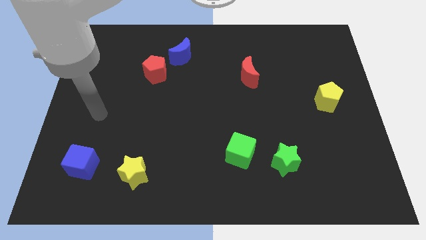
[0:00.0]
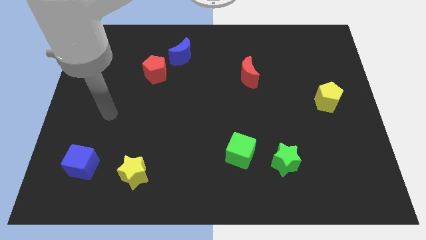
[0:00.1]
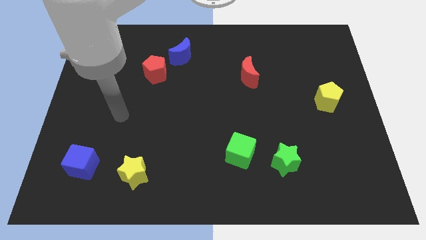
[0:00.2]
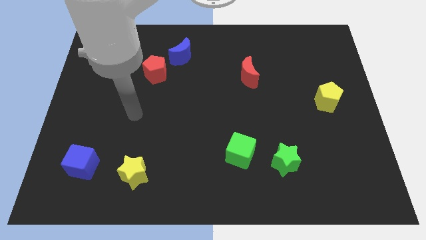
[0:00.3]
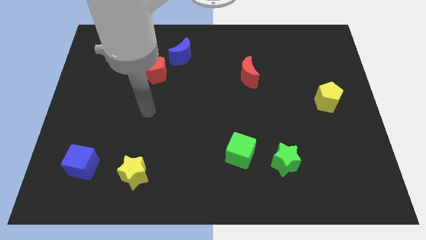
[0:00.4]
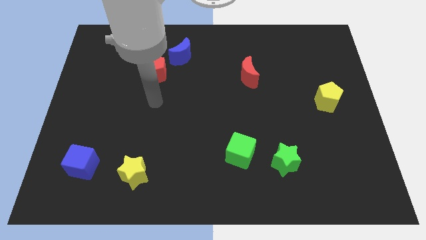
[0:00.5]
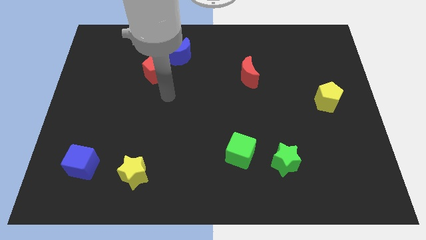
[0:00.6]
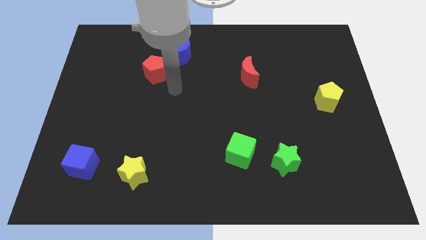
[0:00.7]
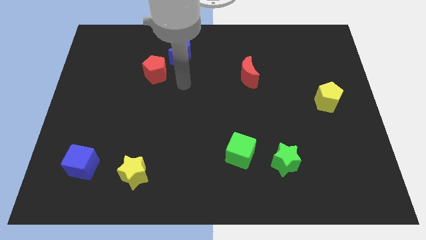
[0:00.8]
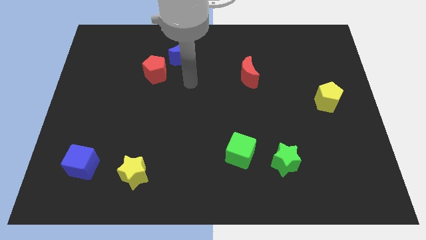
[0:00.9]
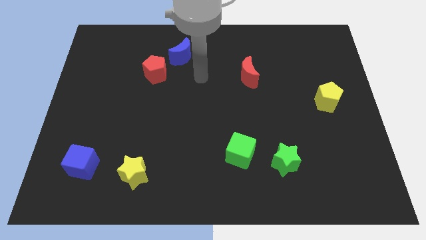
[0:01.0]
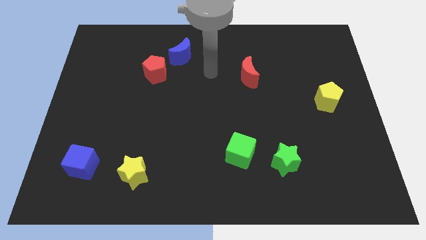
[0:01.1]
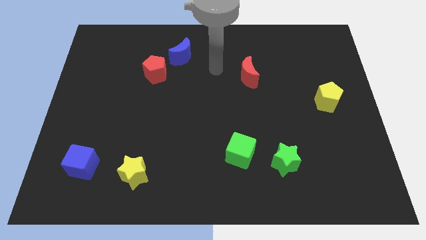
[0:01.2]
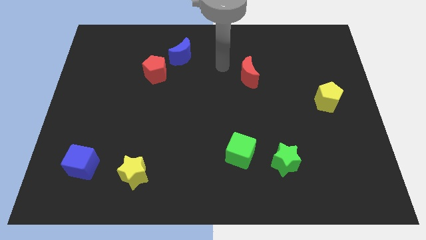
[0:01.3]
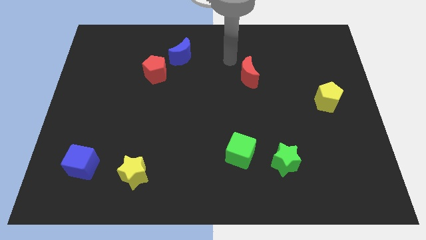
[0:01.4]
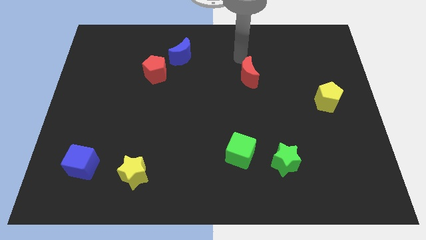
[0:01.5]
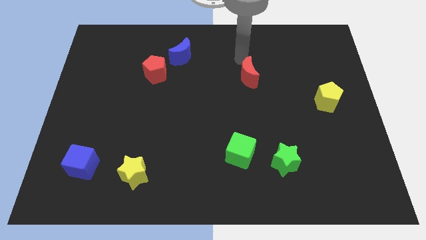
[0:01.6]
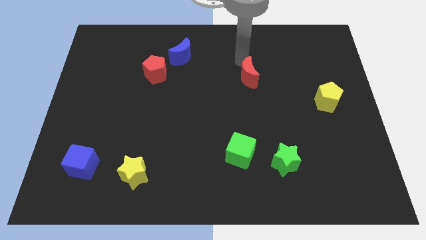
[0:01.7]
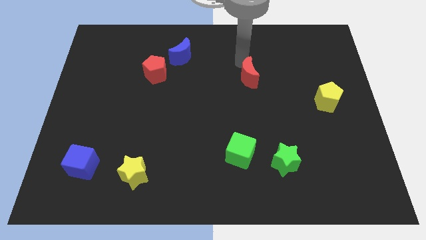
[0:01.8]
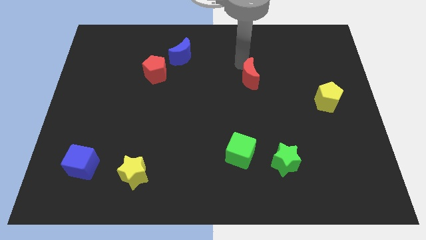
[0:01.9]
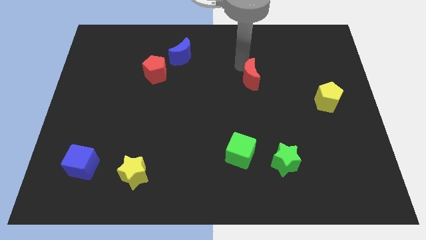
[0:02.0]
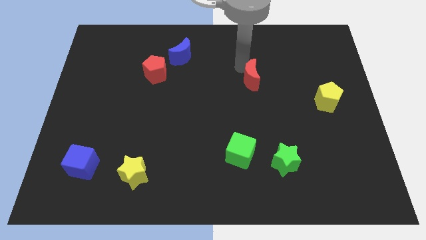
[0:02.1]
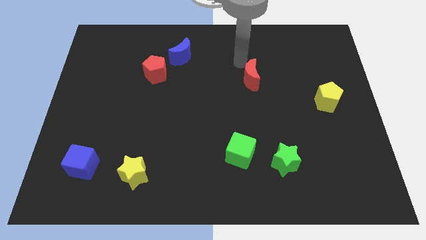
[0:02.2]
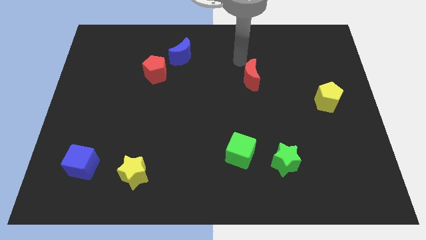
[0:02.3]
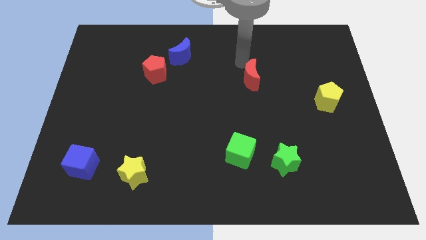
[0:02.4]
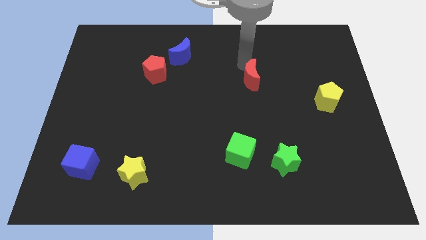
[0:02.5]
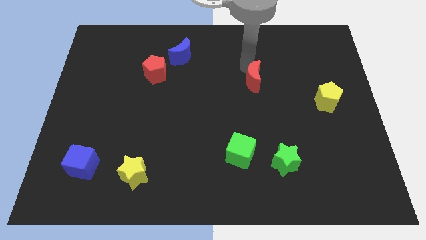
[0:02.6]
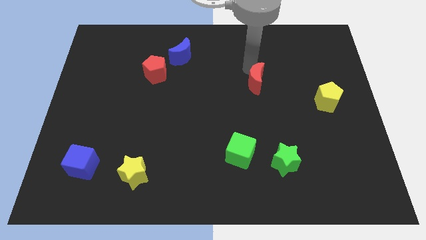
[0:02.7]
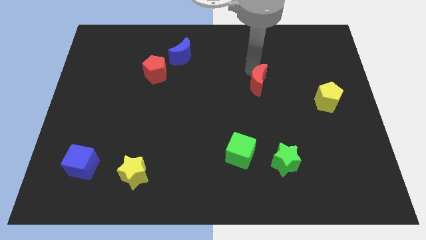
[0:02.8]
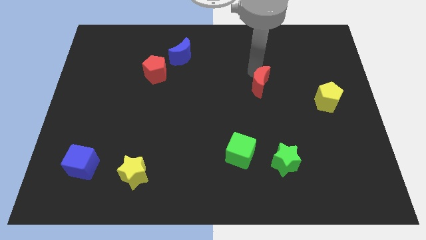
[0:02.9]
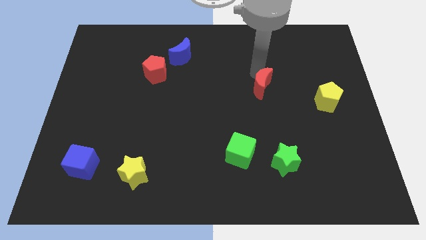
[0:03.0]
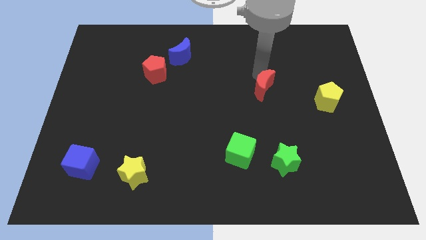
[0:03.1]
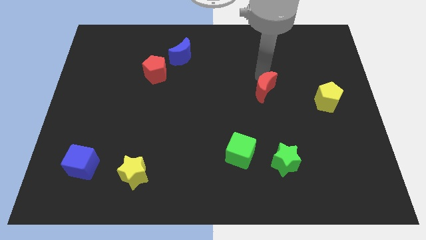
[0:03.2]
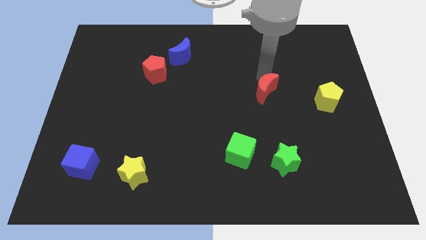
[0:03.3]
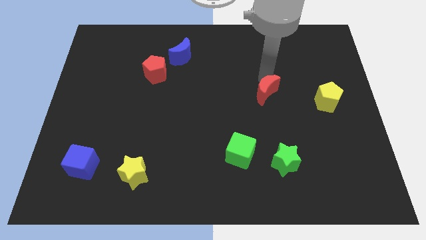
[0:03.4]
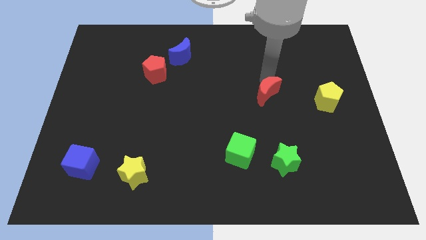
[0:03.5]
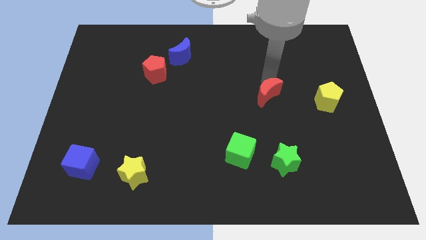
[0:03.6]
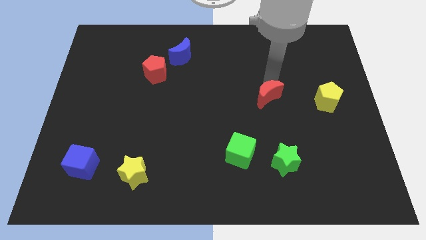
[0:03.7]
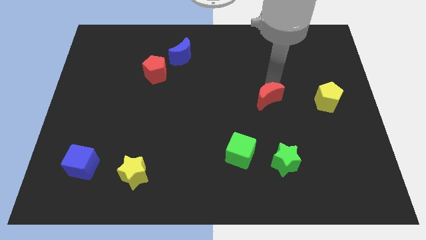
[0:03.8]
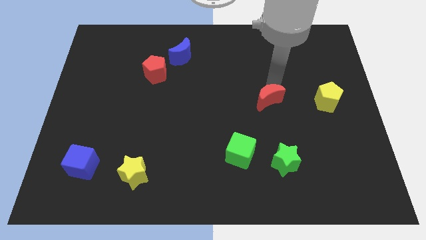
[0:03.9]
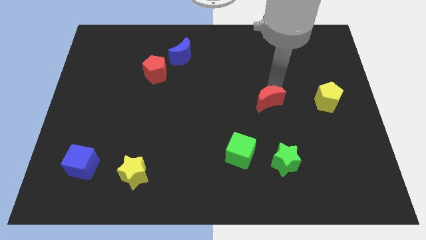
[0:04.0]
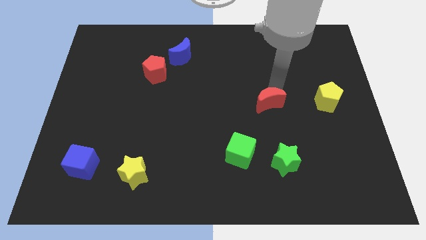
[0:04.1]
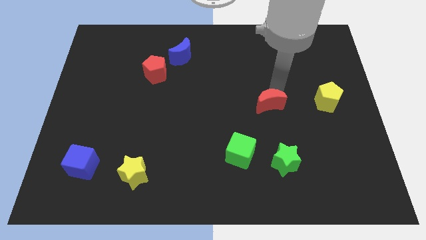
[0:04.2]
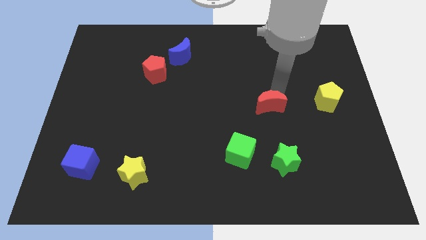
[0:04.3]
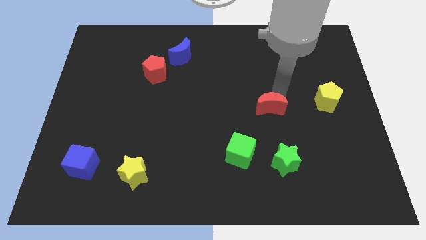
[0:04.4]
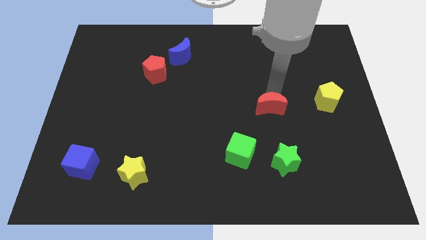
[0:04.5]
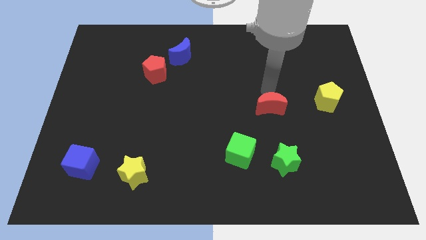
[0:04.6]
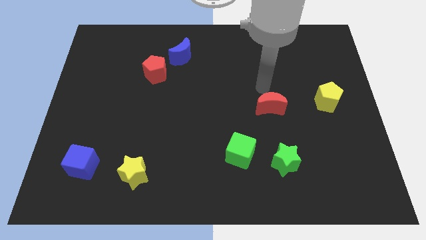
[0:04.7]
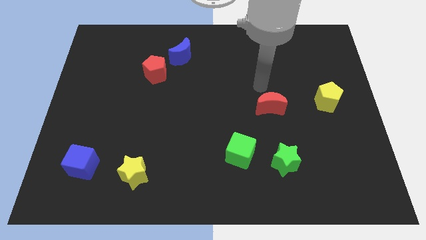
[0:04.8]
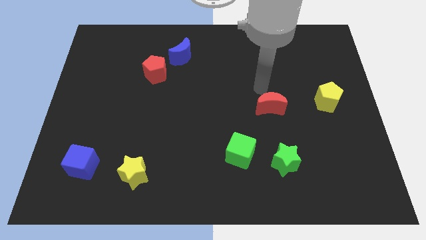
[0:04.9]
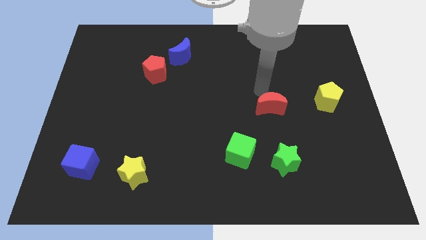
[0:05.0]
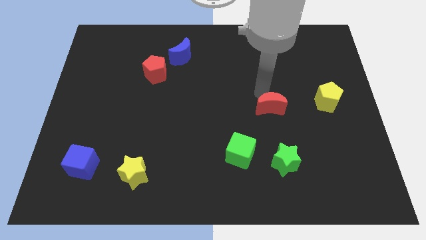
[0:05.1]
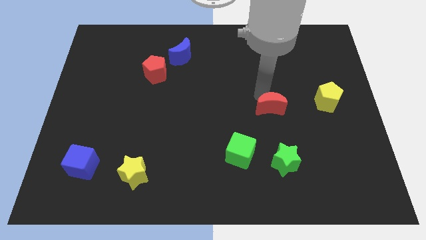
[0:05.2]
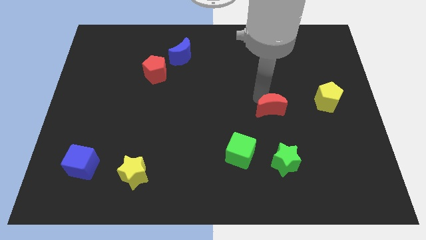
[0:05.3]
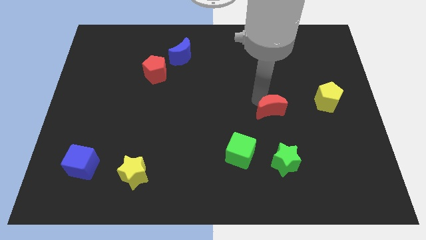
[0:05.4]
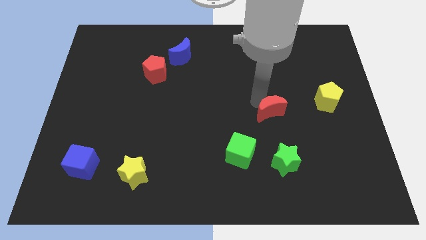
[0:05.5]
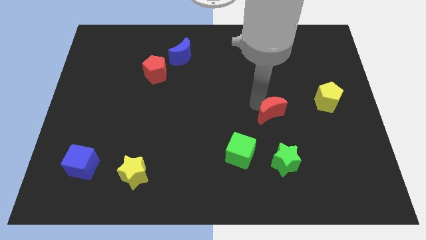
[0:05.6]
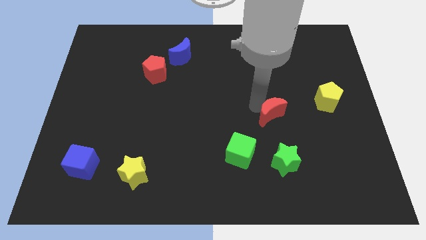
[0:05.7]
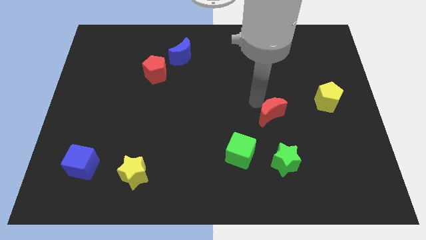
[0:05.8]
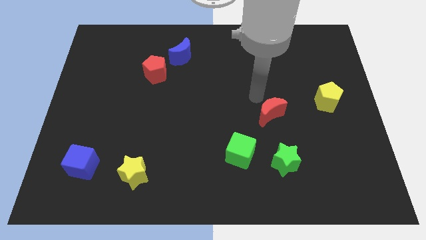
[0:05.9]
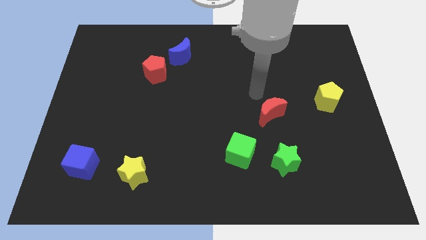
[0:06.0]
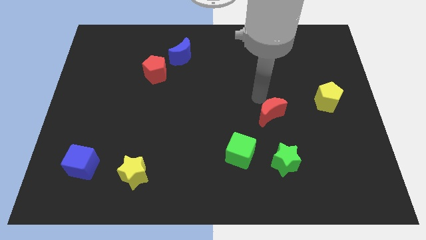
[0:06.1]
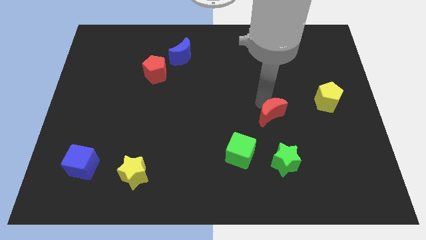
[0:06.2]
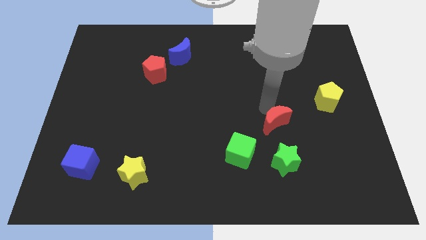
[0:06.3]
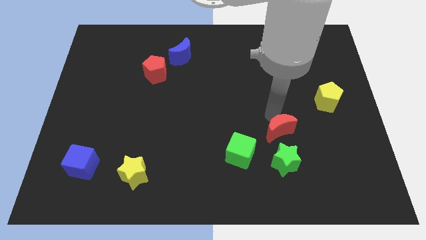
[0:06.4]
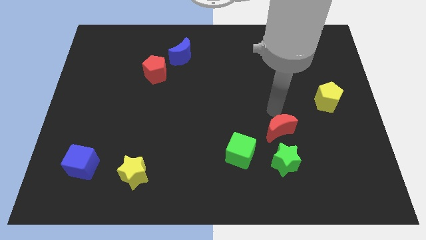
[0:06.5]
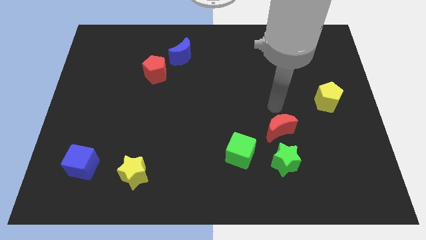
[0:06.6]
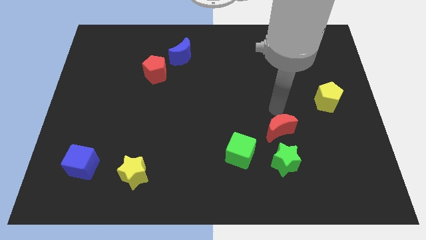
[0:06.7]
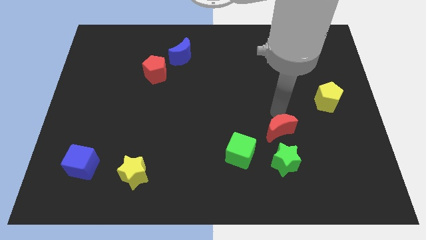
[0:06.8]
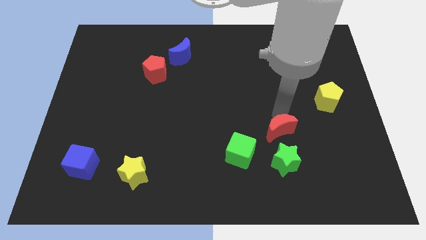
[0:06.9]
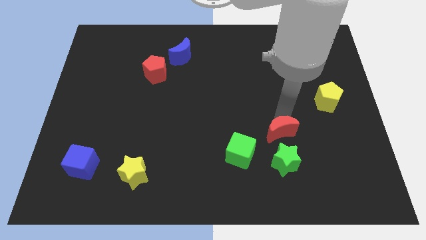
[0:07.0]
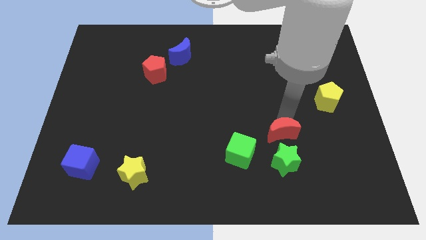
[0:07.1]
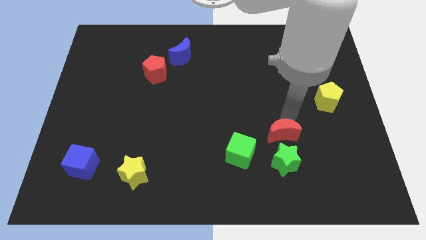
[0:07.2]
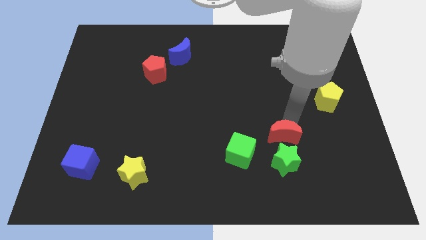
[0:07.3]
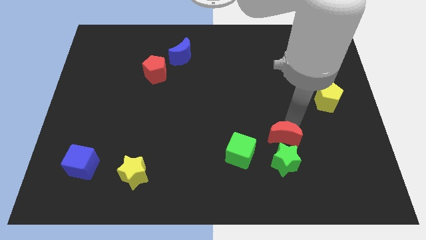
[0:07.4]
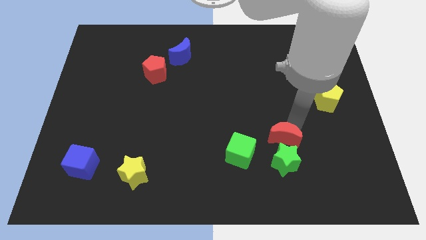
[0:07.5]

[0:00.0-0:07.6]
push the red moon to the green star
